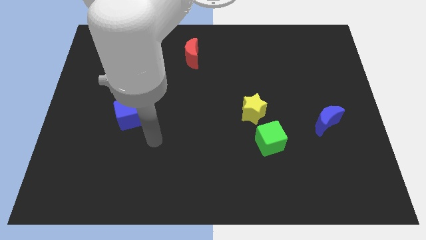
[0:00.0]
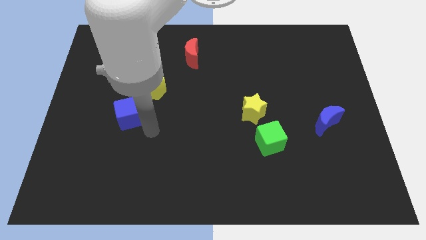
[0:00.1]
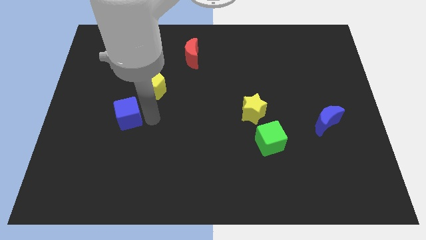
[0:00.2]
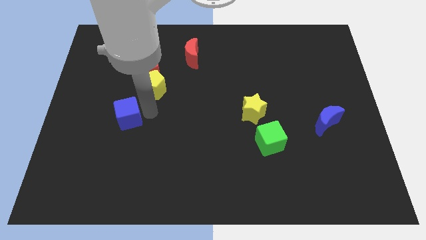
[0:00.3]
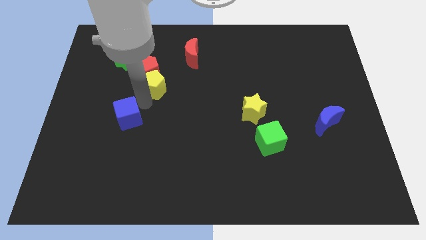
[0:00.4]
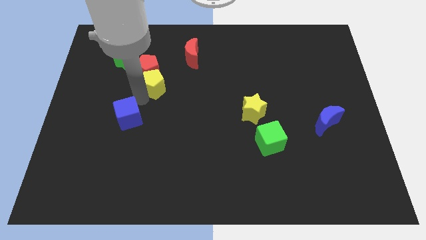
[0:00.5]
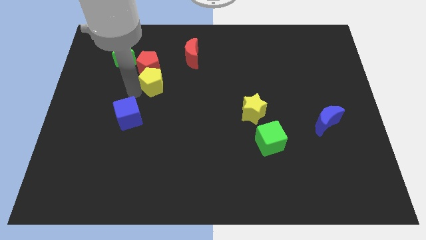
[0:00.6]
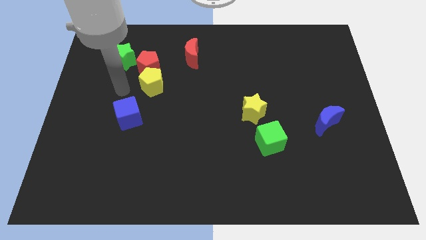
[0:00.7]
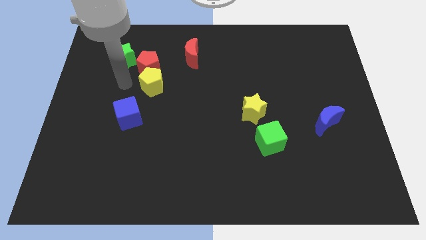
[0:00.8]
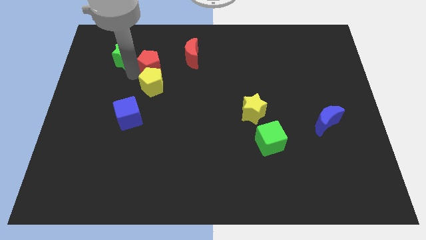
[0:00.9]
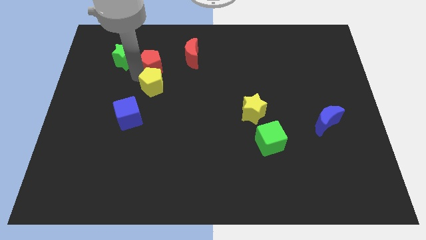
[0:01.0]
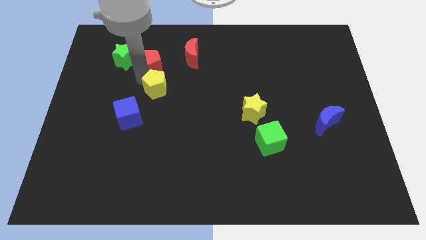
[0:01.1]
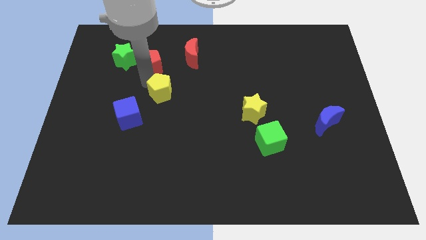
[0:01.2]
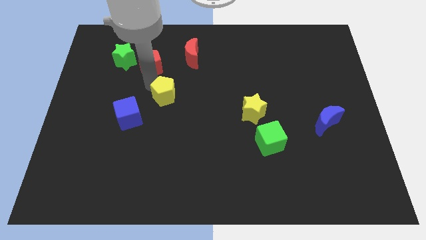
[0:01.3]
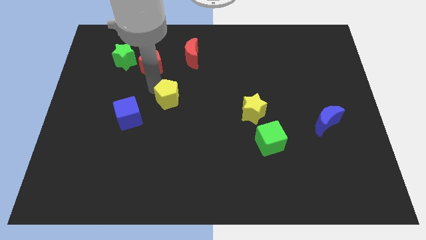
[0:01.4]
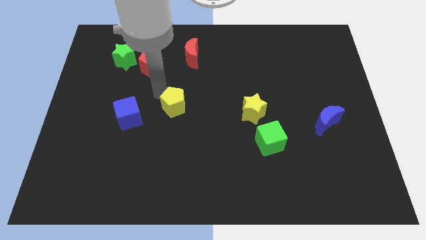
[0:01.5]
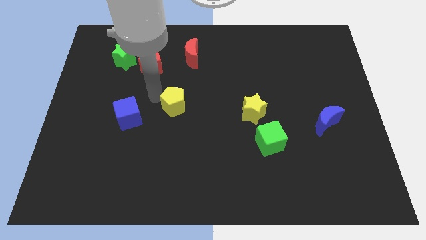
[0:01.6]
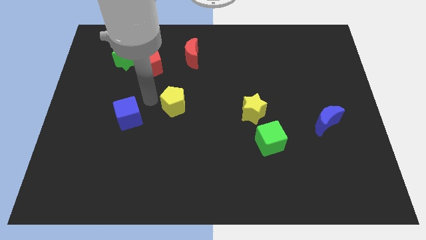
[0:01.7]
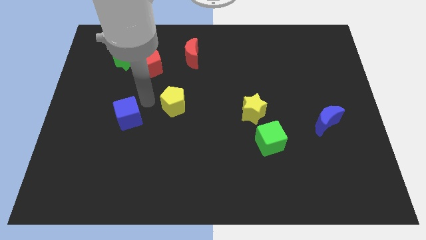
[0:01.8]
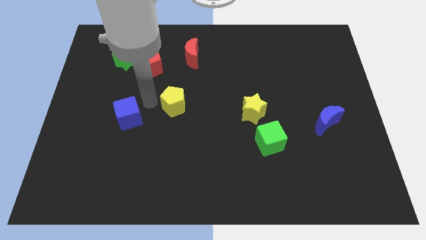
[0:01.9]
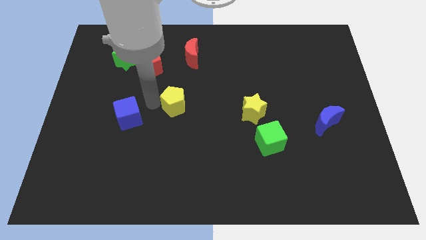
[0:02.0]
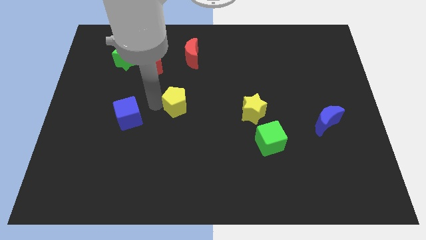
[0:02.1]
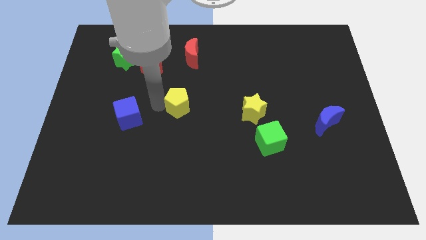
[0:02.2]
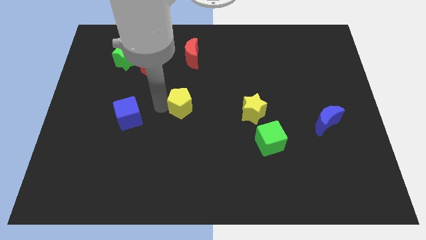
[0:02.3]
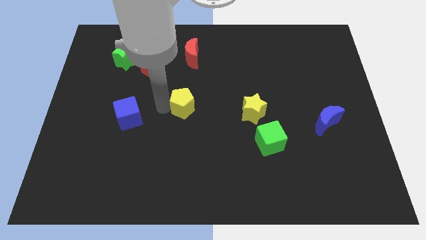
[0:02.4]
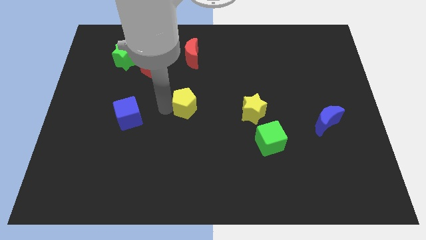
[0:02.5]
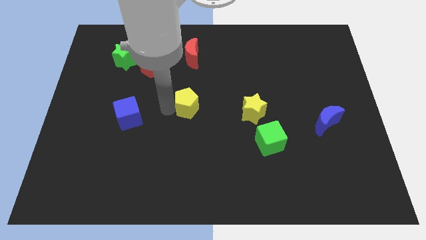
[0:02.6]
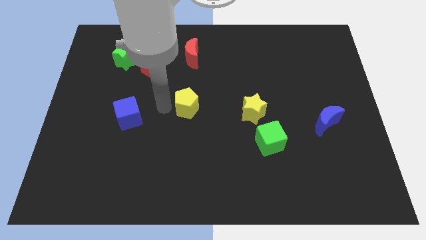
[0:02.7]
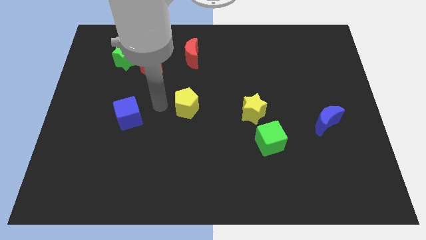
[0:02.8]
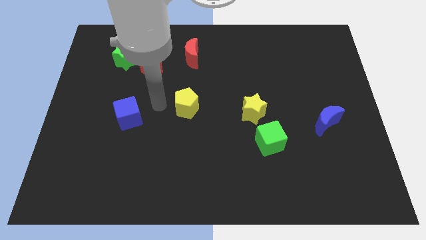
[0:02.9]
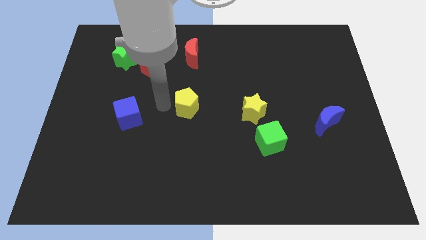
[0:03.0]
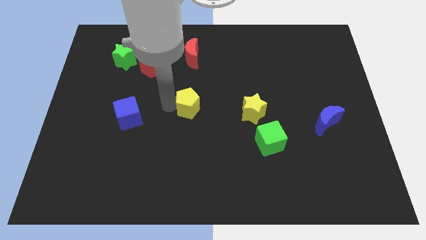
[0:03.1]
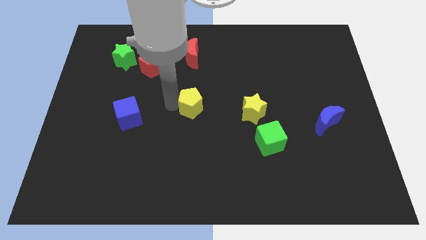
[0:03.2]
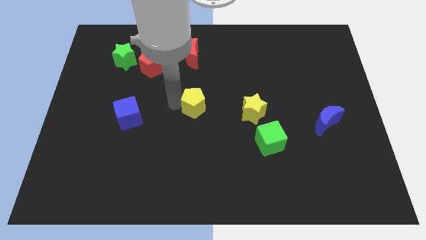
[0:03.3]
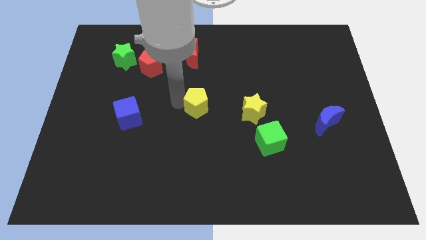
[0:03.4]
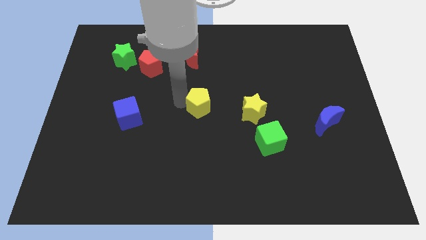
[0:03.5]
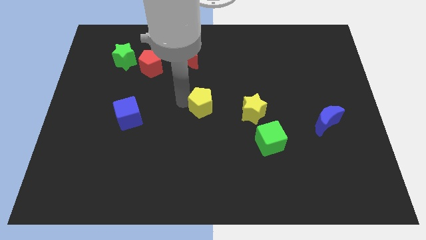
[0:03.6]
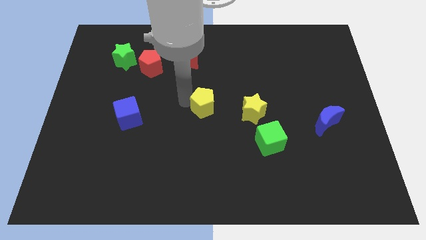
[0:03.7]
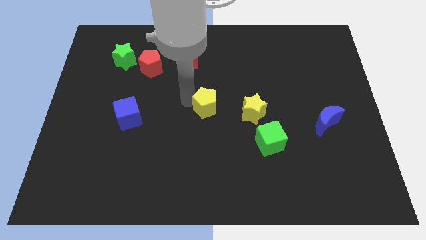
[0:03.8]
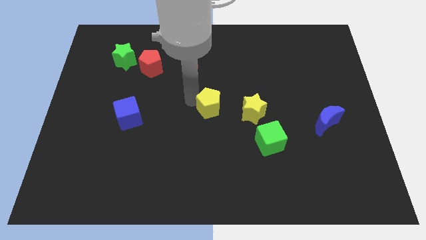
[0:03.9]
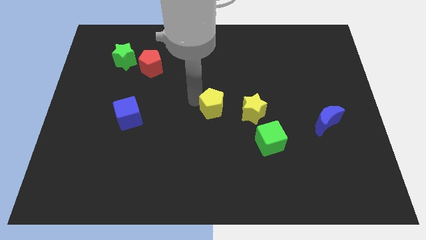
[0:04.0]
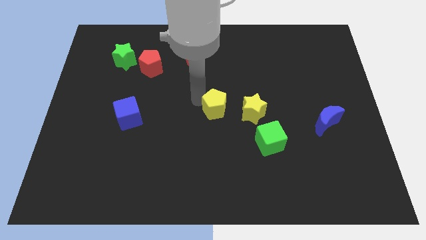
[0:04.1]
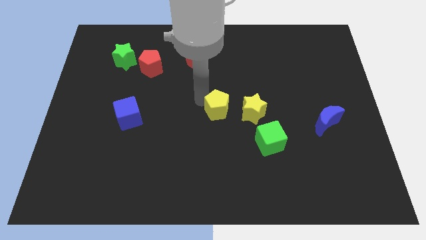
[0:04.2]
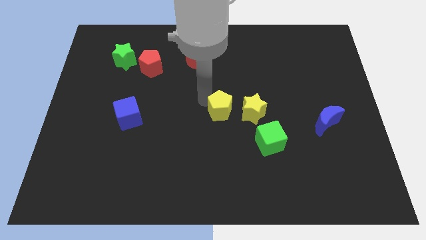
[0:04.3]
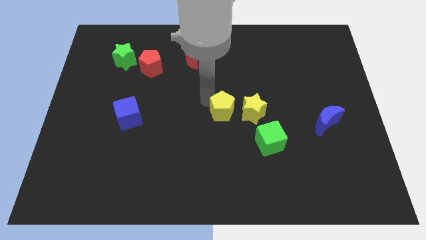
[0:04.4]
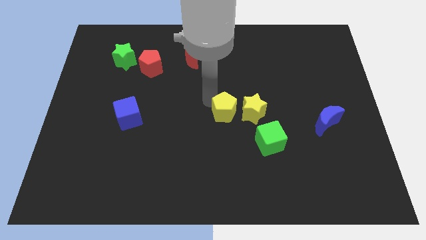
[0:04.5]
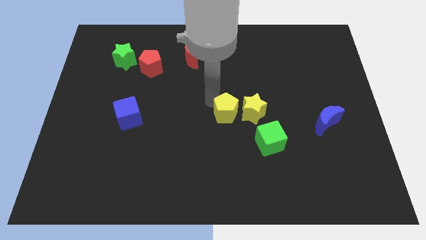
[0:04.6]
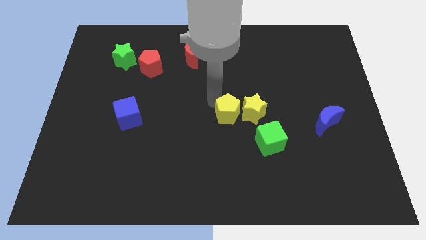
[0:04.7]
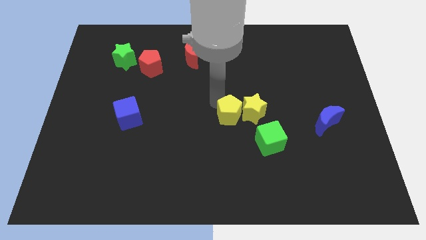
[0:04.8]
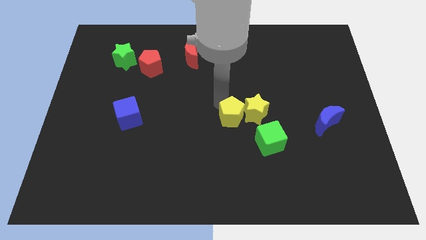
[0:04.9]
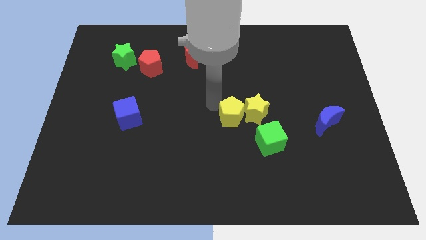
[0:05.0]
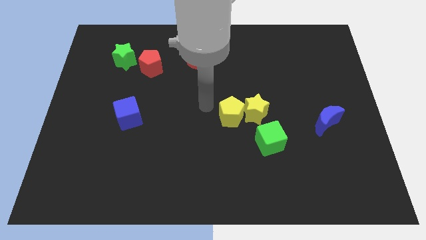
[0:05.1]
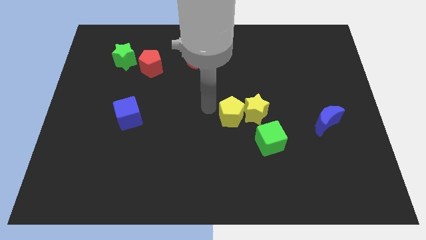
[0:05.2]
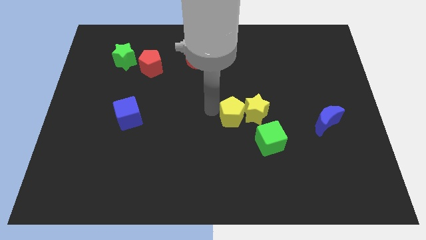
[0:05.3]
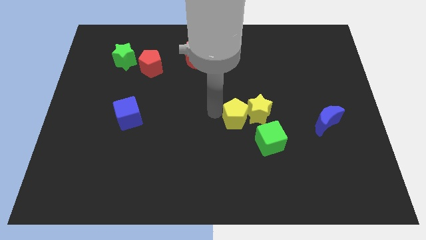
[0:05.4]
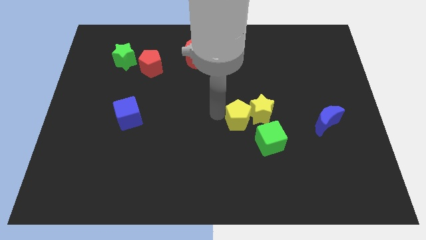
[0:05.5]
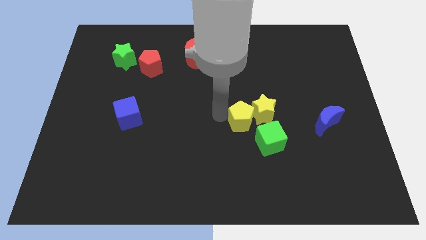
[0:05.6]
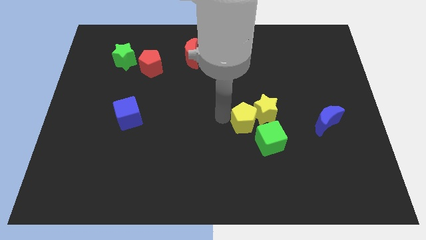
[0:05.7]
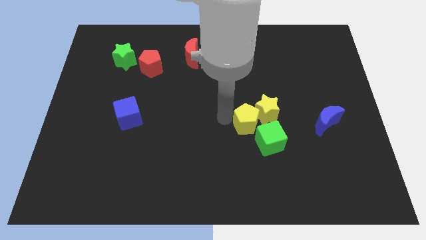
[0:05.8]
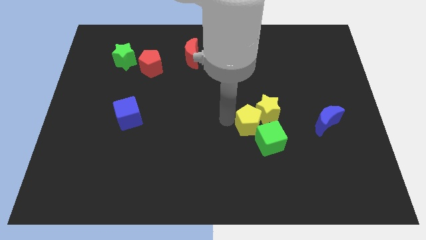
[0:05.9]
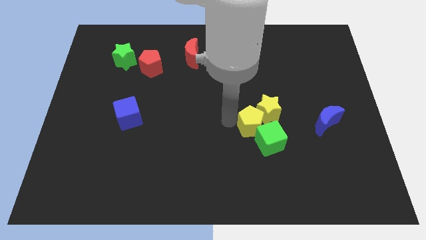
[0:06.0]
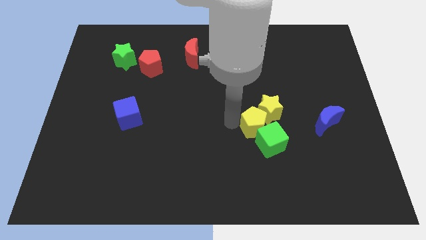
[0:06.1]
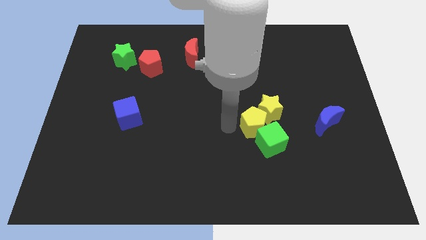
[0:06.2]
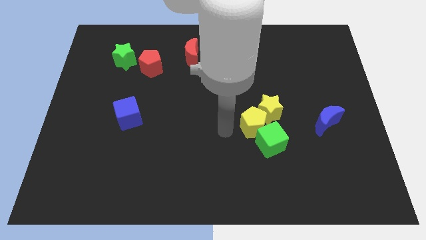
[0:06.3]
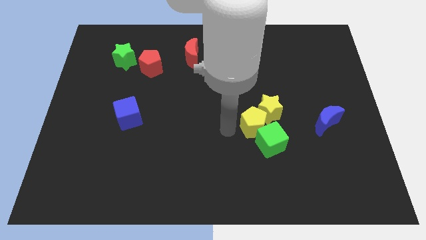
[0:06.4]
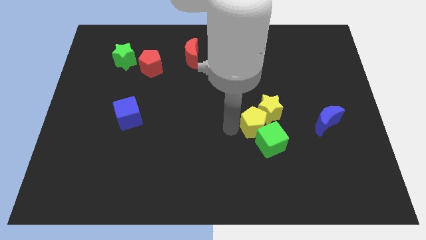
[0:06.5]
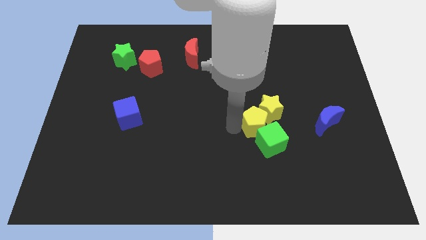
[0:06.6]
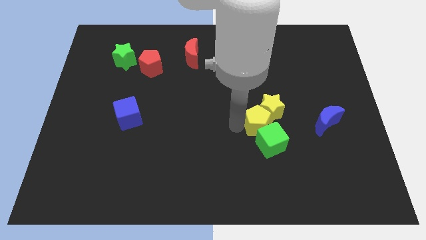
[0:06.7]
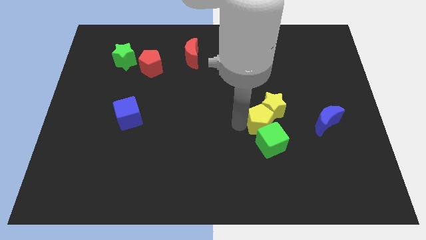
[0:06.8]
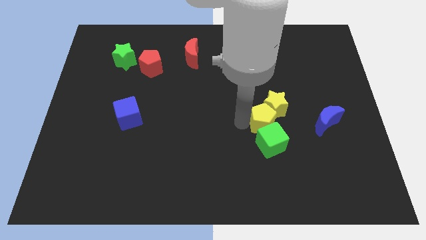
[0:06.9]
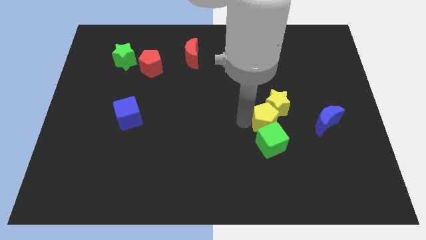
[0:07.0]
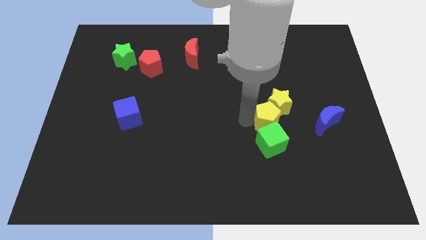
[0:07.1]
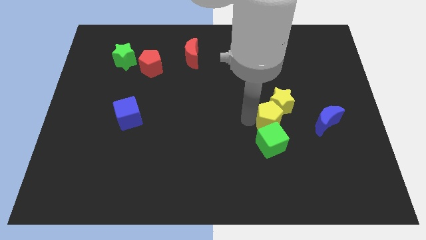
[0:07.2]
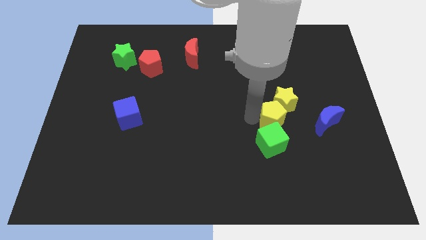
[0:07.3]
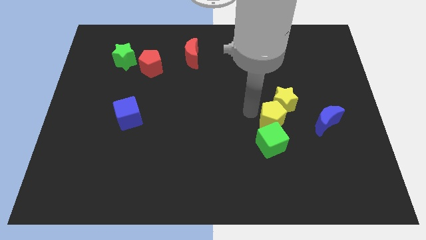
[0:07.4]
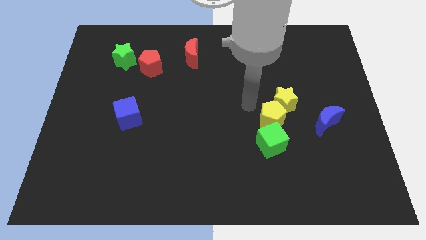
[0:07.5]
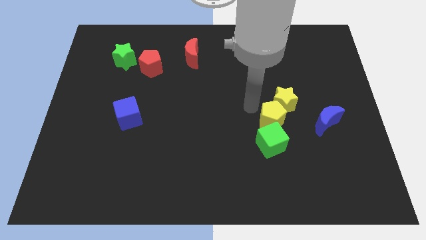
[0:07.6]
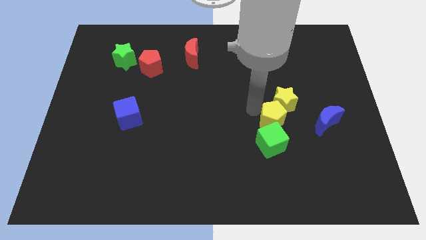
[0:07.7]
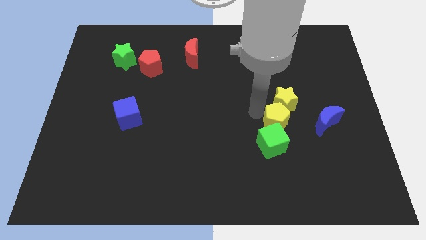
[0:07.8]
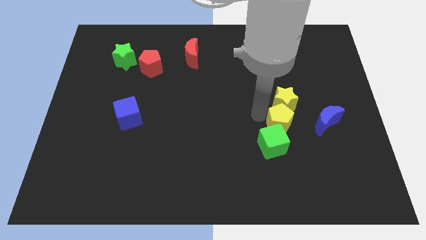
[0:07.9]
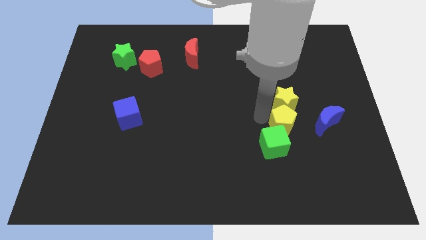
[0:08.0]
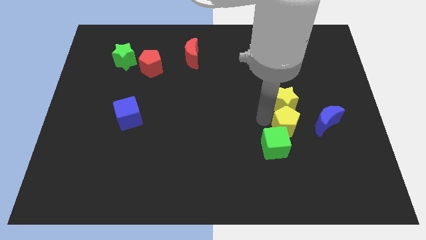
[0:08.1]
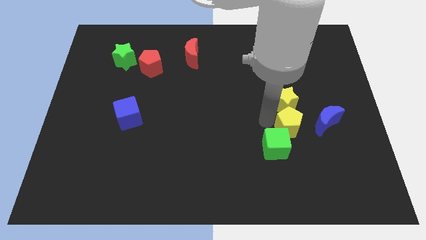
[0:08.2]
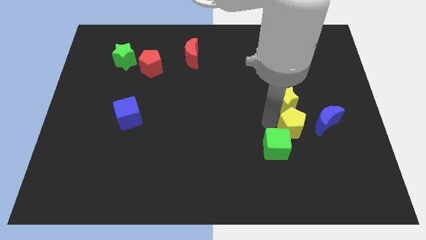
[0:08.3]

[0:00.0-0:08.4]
slide the yellow pentagon diagonally down and to the left of the blue moon
